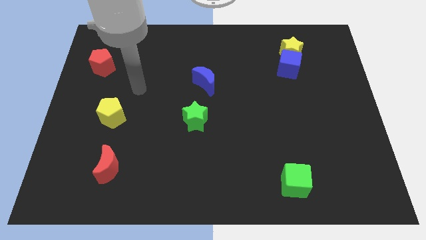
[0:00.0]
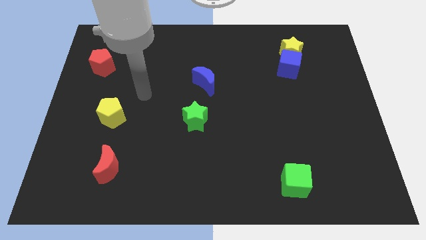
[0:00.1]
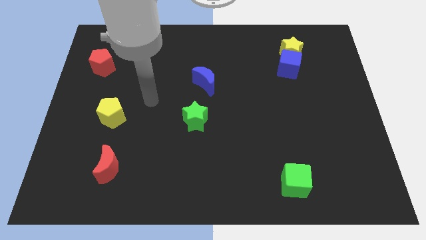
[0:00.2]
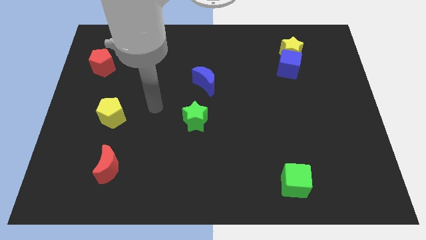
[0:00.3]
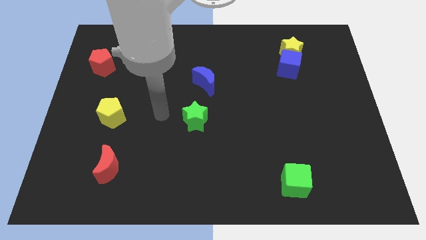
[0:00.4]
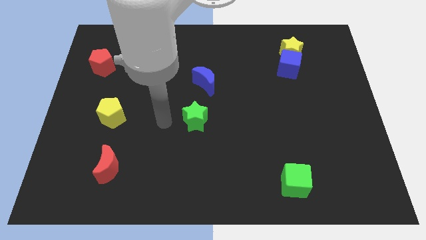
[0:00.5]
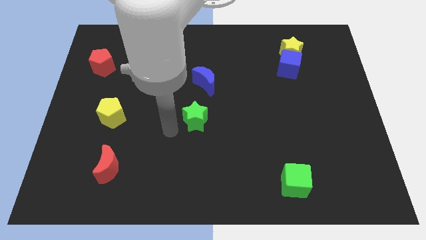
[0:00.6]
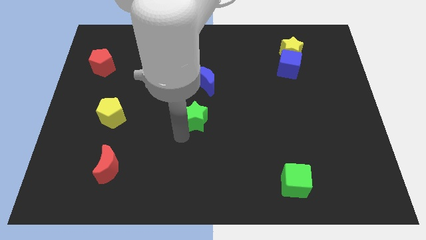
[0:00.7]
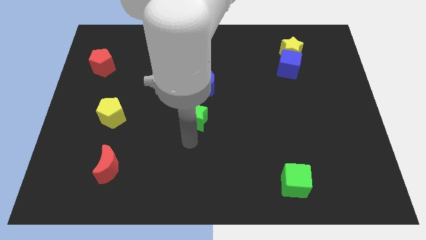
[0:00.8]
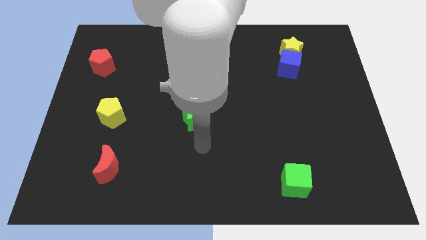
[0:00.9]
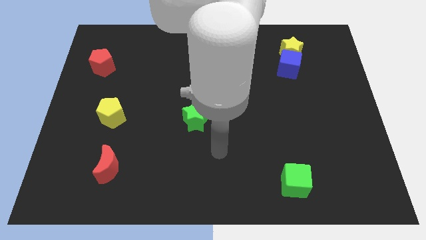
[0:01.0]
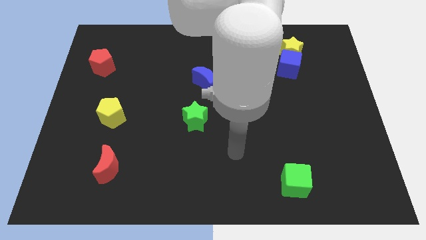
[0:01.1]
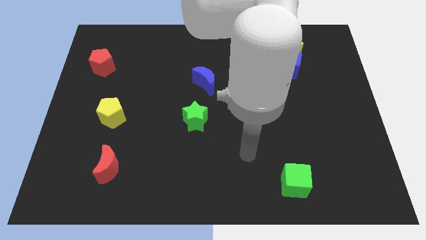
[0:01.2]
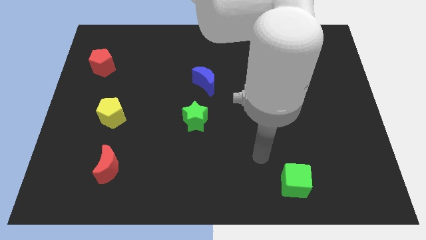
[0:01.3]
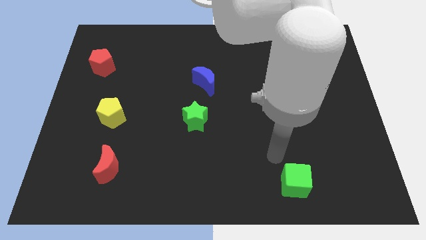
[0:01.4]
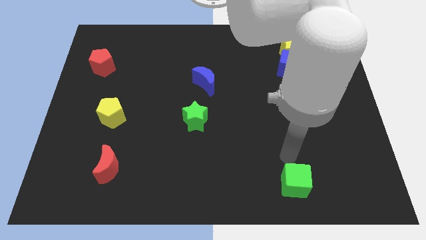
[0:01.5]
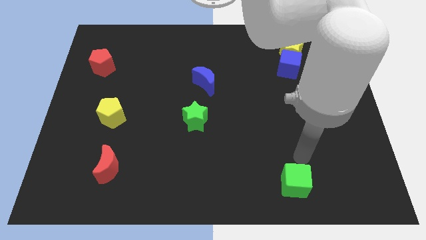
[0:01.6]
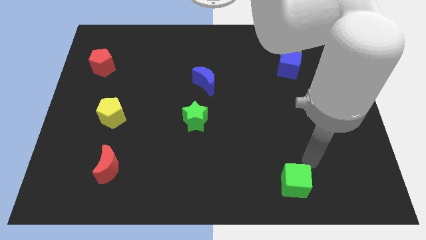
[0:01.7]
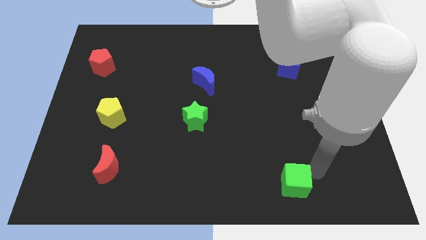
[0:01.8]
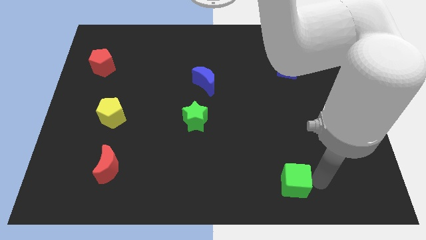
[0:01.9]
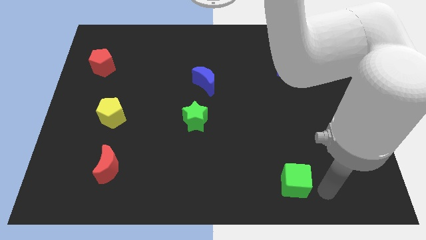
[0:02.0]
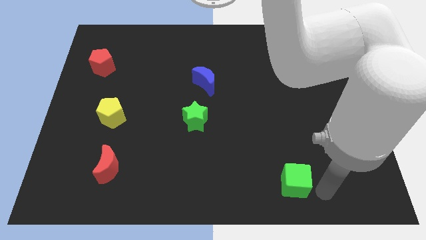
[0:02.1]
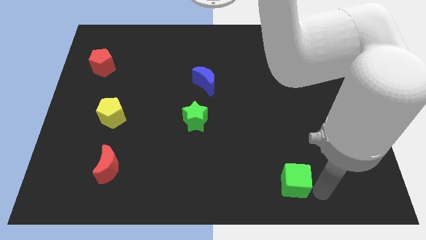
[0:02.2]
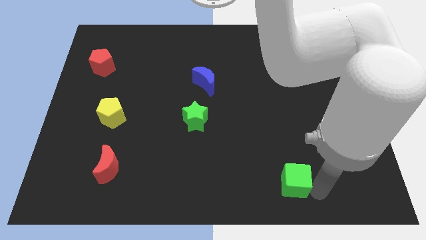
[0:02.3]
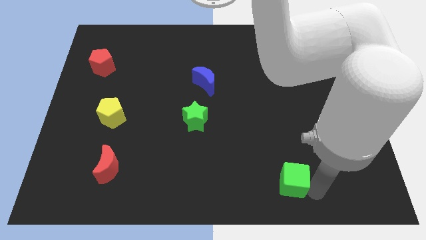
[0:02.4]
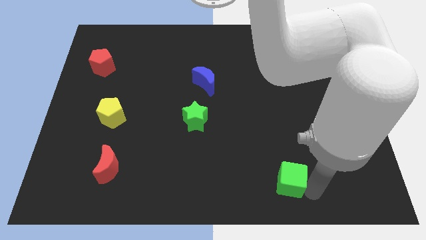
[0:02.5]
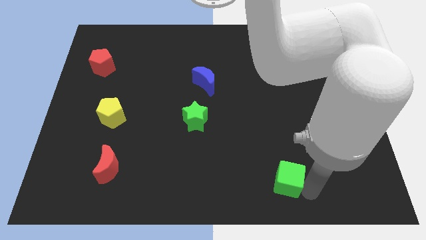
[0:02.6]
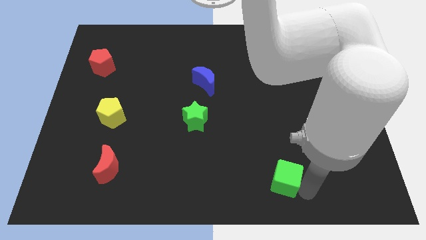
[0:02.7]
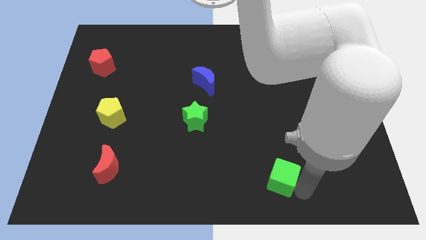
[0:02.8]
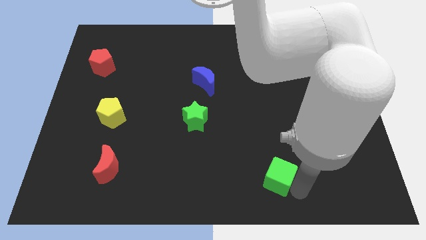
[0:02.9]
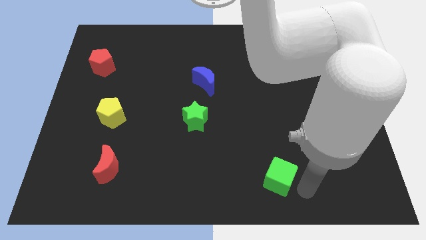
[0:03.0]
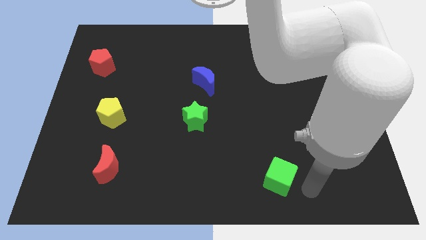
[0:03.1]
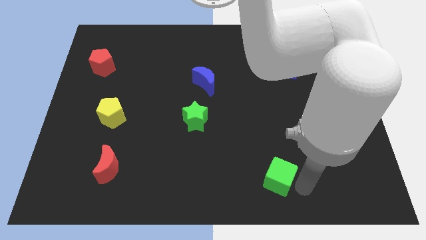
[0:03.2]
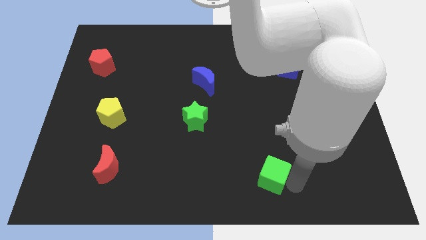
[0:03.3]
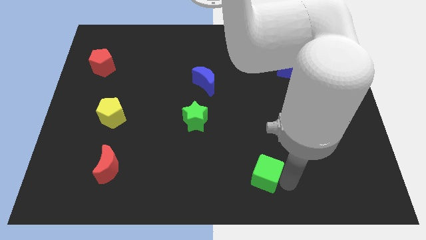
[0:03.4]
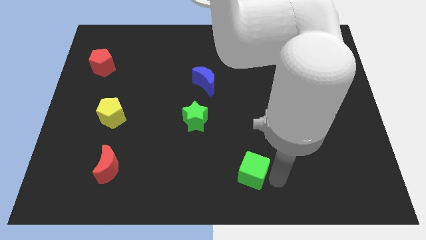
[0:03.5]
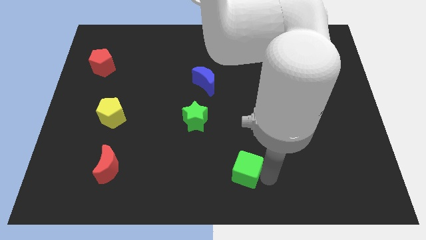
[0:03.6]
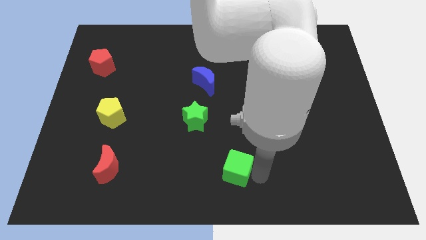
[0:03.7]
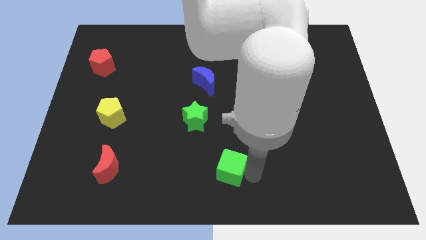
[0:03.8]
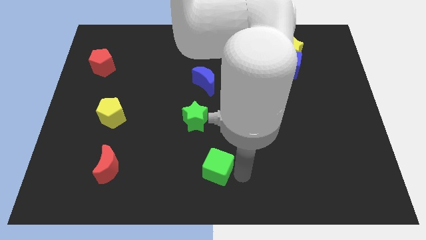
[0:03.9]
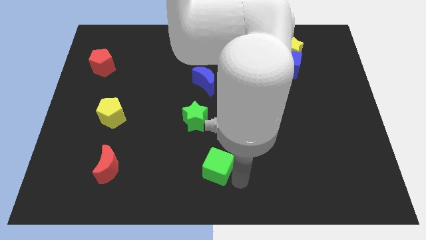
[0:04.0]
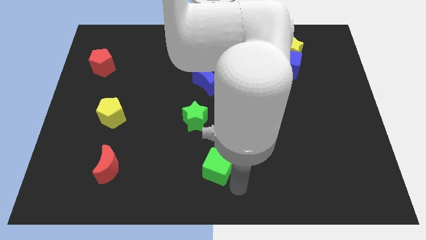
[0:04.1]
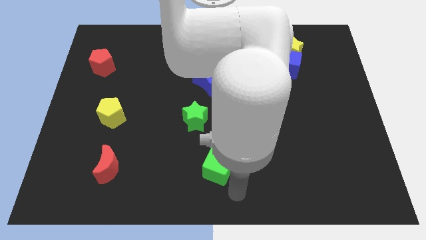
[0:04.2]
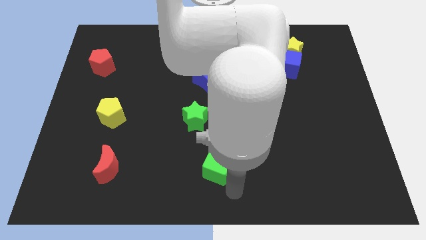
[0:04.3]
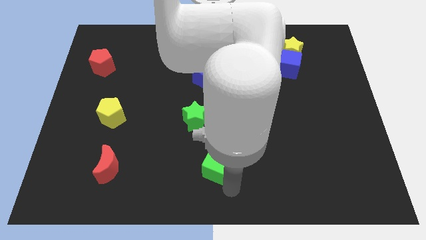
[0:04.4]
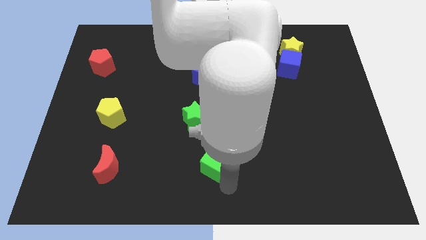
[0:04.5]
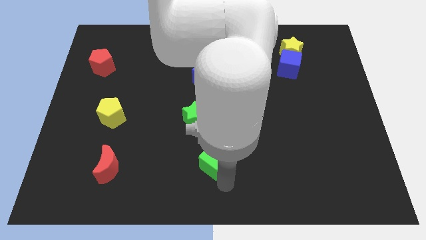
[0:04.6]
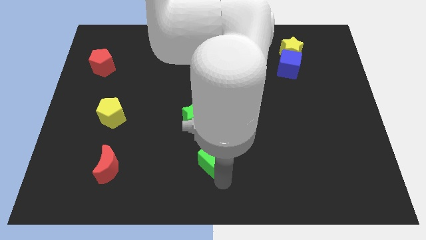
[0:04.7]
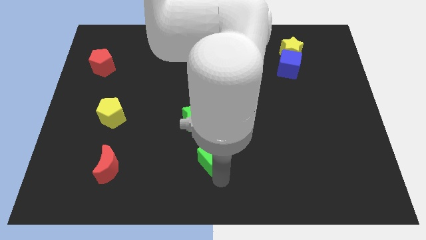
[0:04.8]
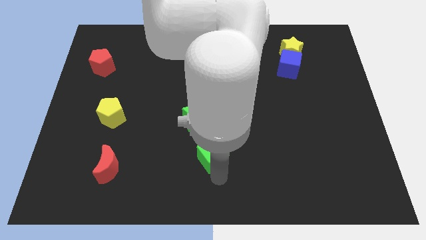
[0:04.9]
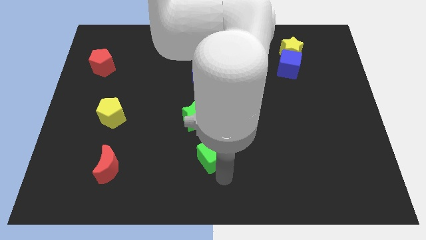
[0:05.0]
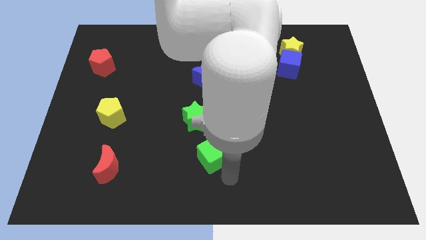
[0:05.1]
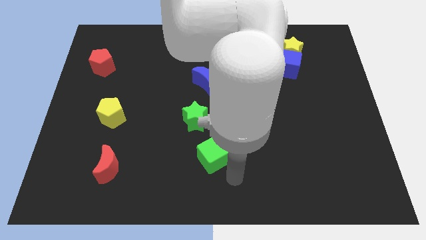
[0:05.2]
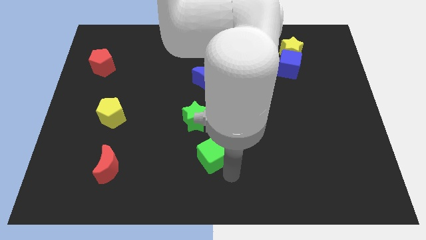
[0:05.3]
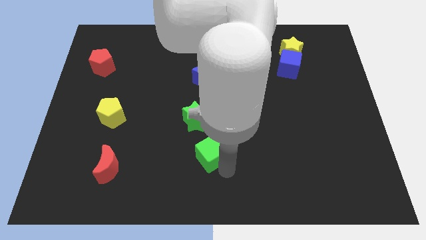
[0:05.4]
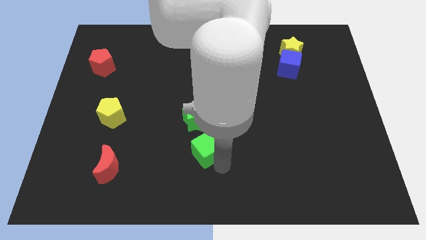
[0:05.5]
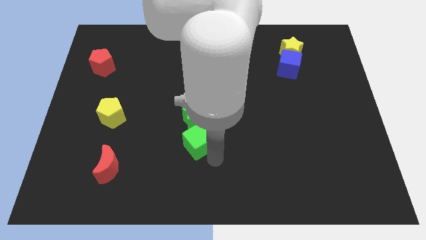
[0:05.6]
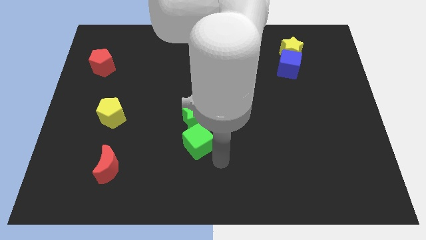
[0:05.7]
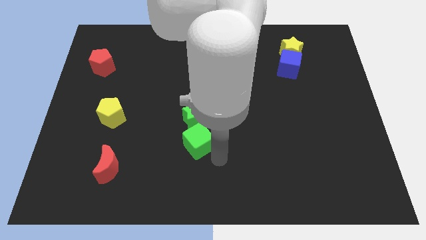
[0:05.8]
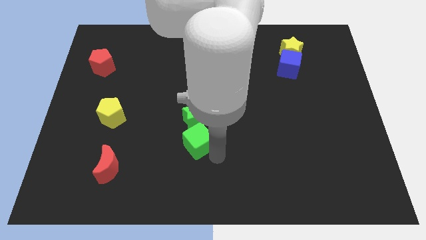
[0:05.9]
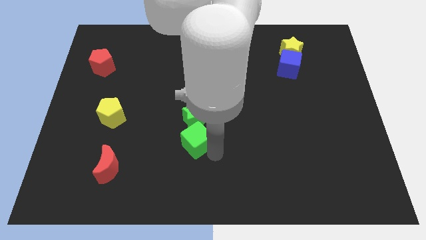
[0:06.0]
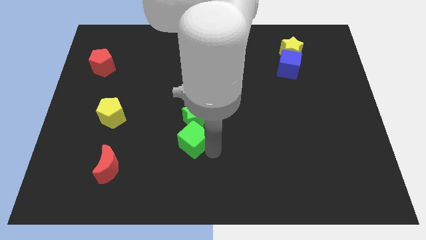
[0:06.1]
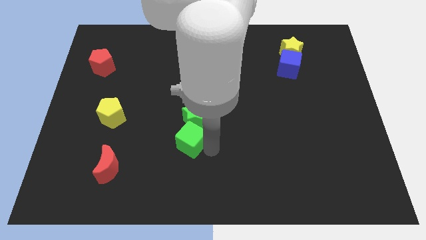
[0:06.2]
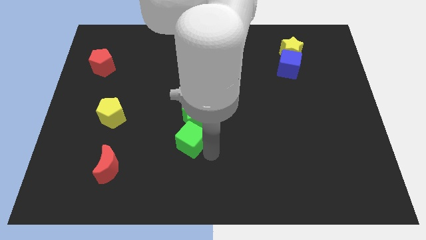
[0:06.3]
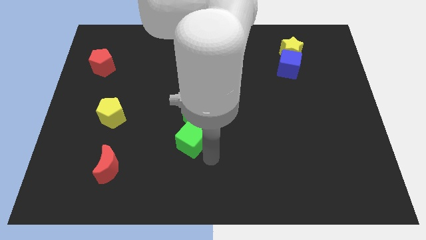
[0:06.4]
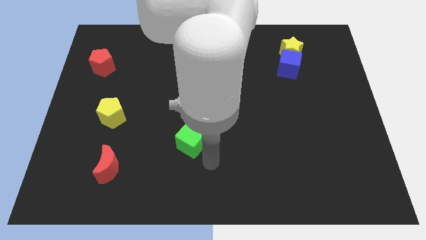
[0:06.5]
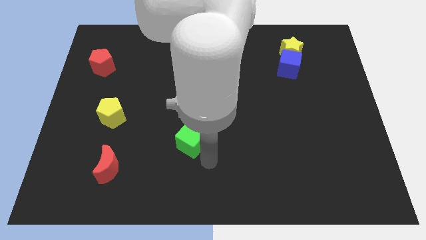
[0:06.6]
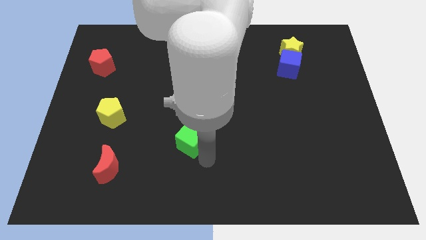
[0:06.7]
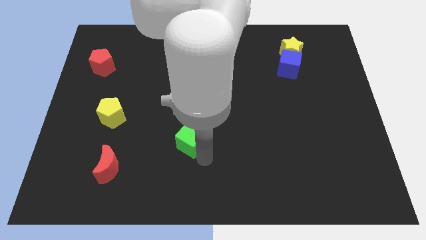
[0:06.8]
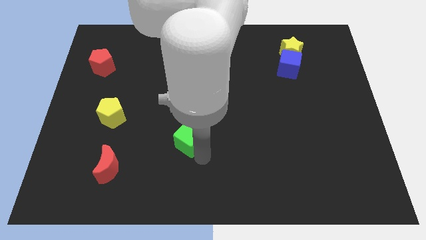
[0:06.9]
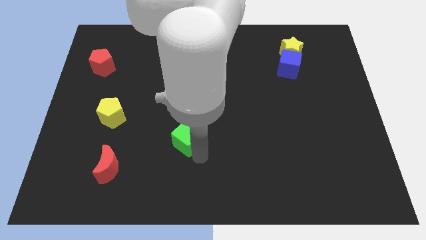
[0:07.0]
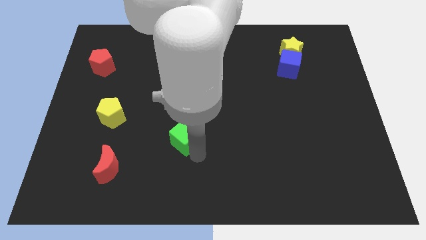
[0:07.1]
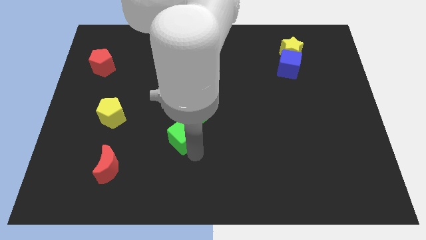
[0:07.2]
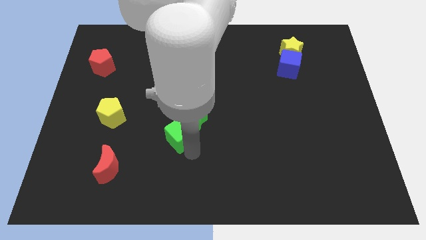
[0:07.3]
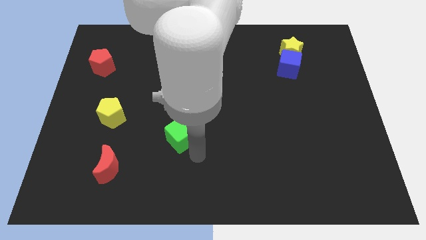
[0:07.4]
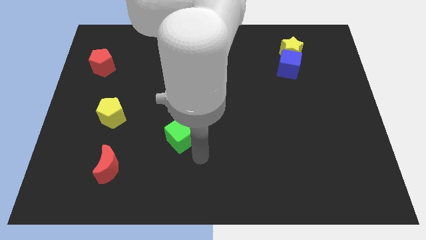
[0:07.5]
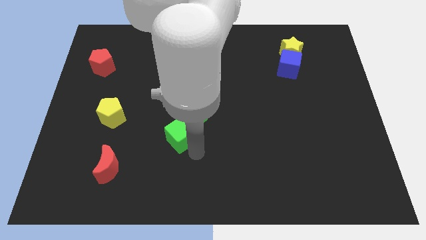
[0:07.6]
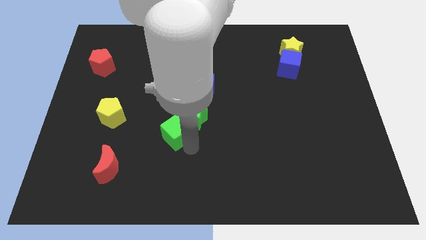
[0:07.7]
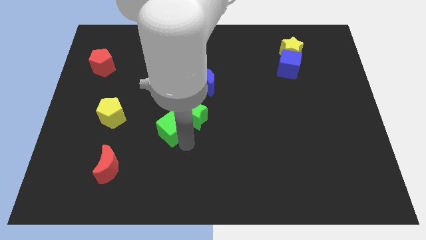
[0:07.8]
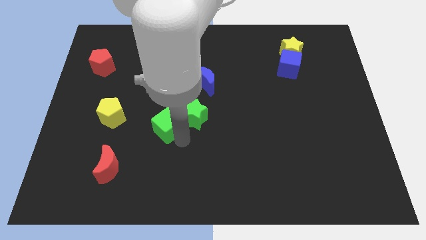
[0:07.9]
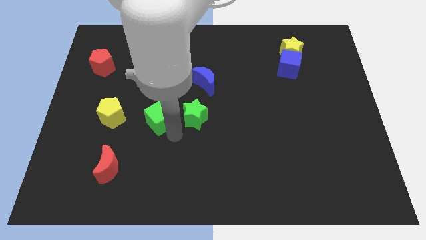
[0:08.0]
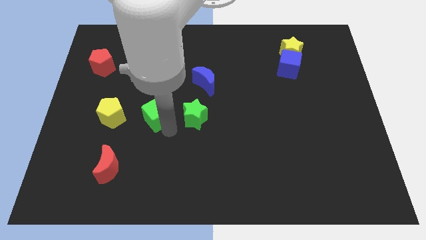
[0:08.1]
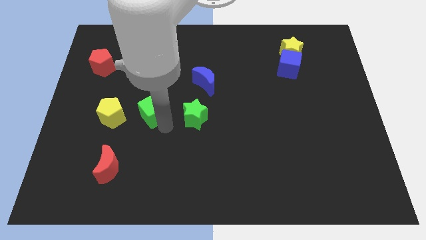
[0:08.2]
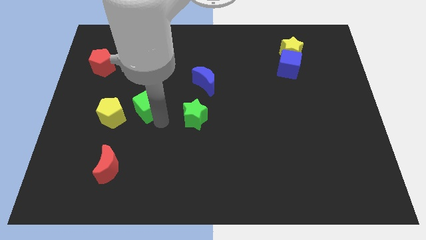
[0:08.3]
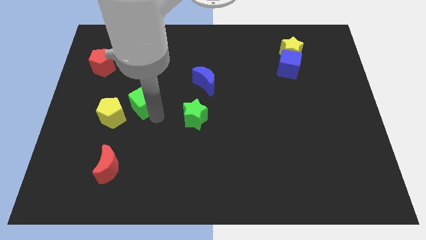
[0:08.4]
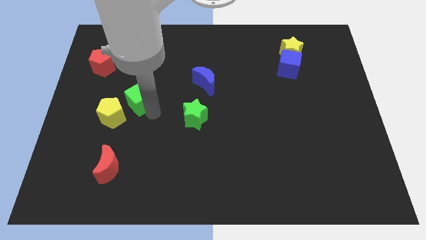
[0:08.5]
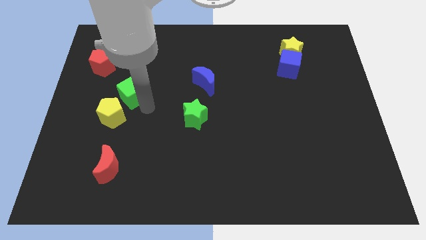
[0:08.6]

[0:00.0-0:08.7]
slide the green cube to the top side of the yellow pentagon
